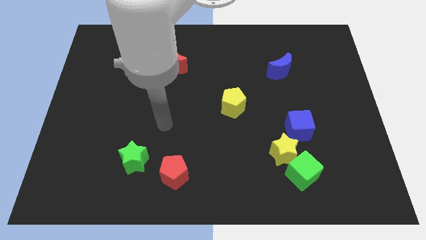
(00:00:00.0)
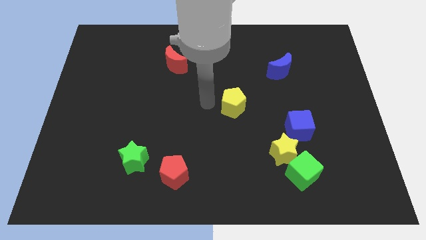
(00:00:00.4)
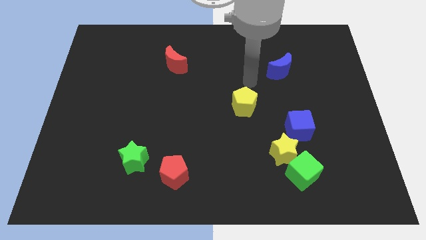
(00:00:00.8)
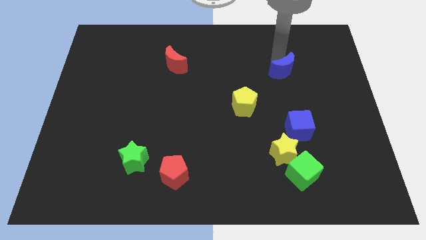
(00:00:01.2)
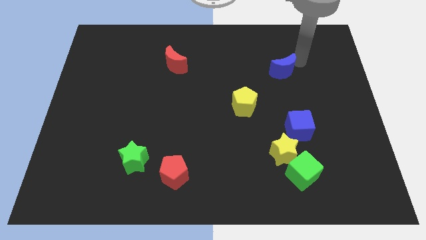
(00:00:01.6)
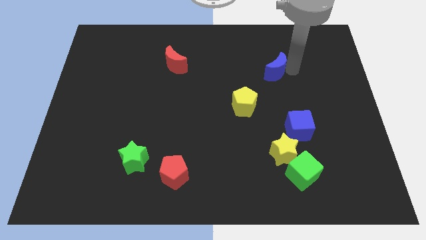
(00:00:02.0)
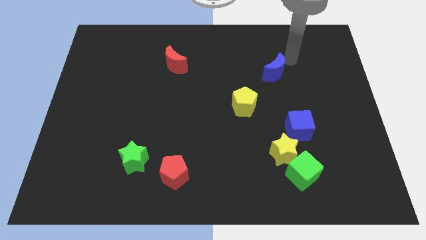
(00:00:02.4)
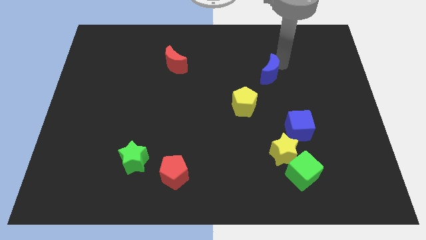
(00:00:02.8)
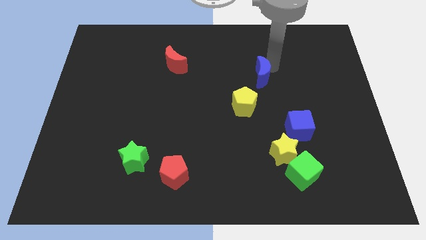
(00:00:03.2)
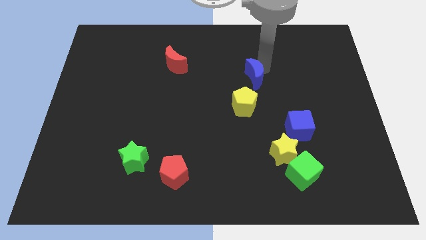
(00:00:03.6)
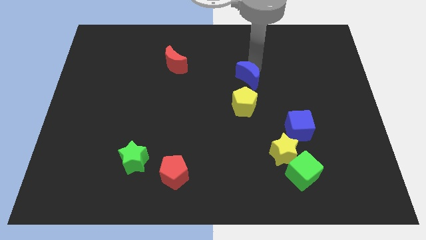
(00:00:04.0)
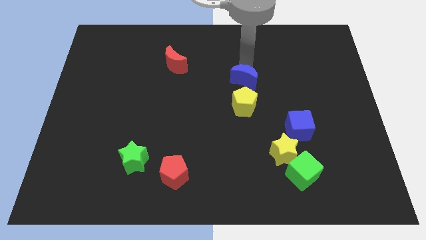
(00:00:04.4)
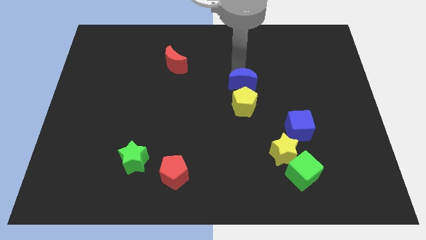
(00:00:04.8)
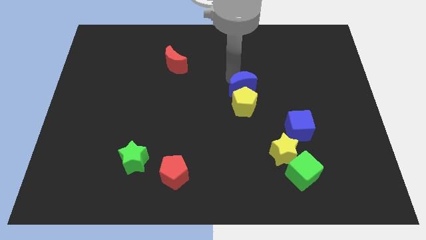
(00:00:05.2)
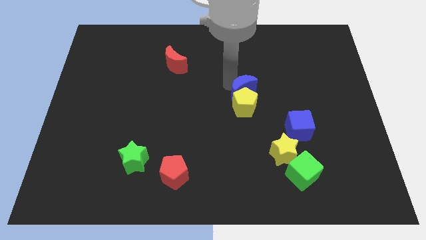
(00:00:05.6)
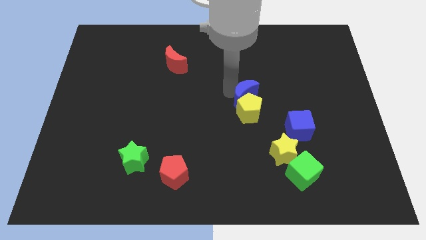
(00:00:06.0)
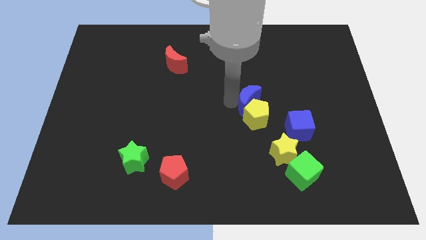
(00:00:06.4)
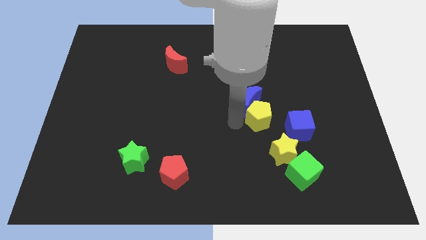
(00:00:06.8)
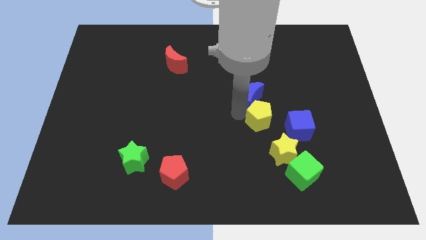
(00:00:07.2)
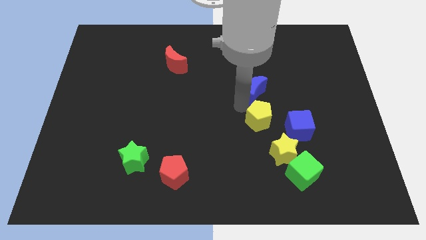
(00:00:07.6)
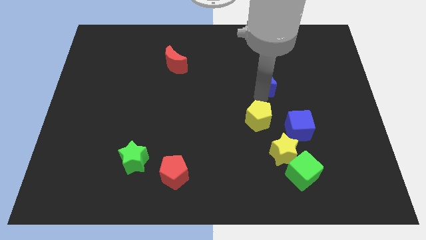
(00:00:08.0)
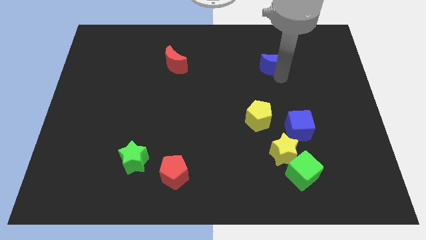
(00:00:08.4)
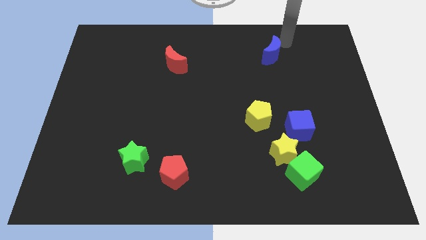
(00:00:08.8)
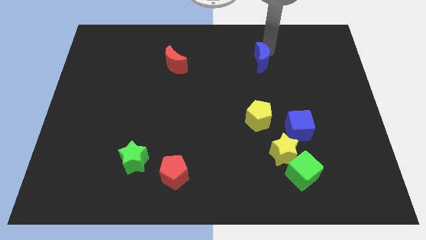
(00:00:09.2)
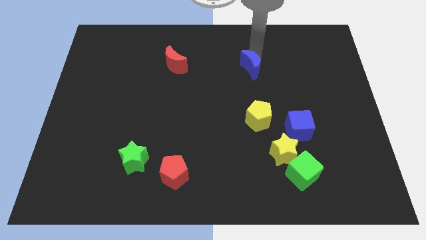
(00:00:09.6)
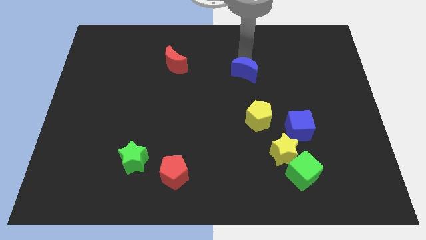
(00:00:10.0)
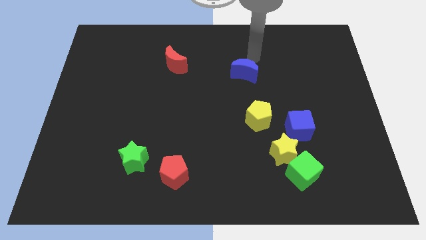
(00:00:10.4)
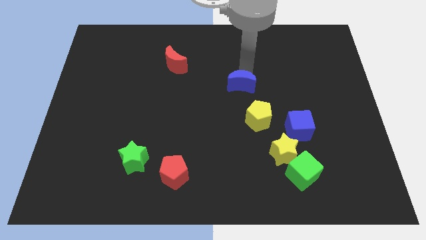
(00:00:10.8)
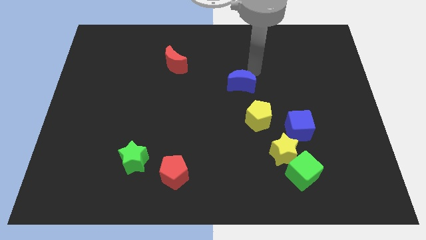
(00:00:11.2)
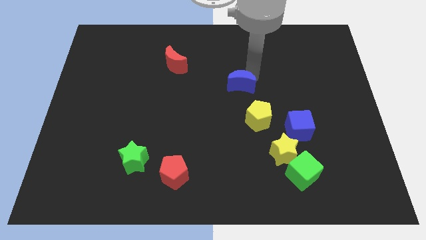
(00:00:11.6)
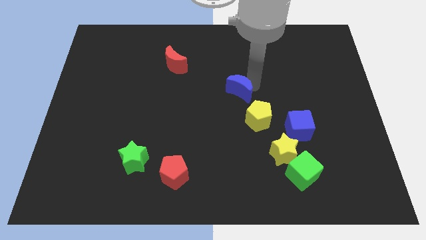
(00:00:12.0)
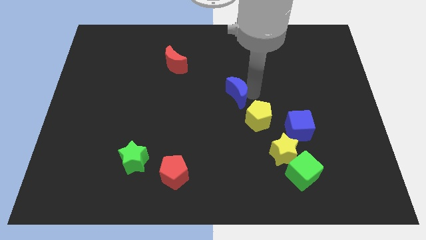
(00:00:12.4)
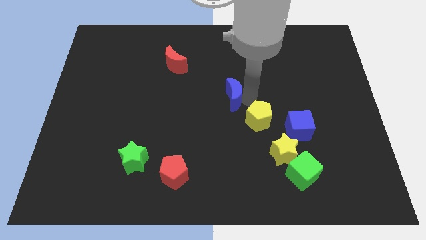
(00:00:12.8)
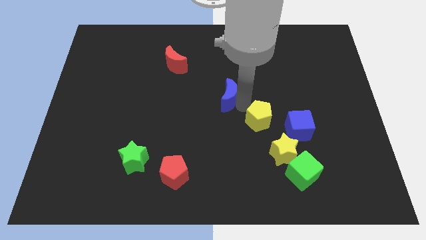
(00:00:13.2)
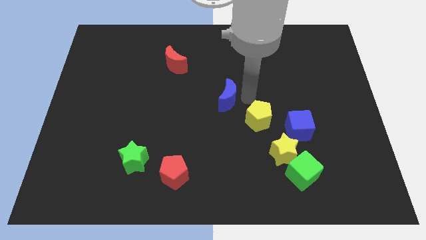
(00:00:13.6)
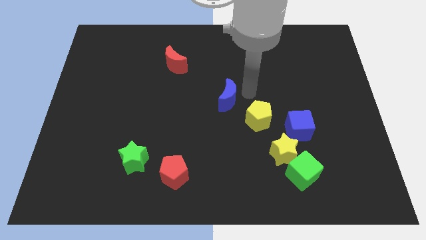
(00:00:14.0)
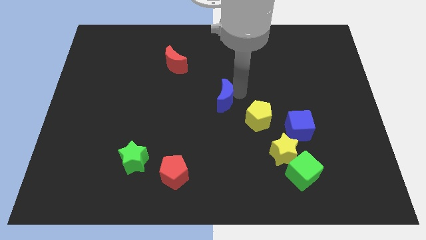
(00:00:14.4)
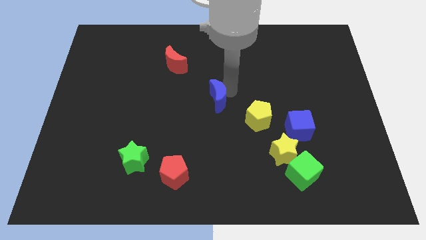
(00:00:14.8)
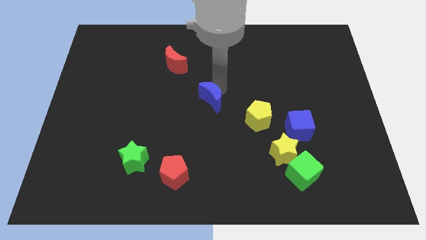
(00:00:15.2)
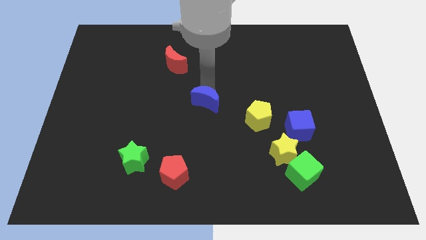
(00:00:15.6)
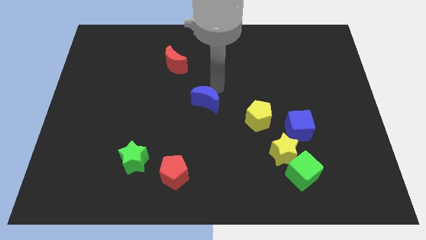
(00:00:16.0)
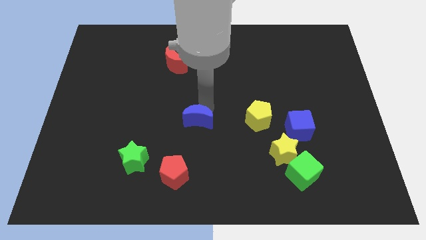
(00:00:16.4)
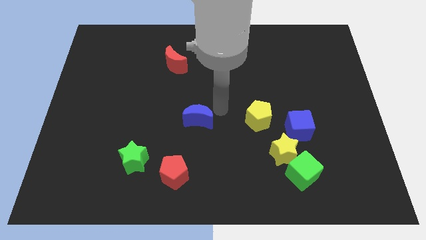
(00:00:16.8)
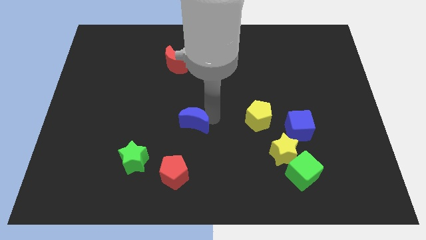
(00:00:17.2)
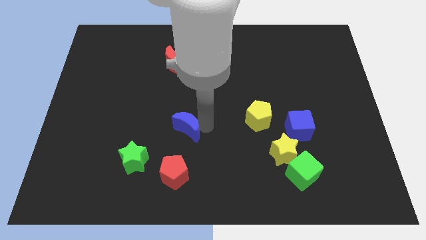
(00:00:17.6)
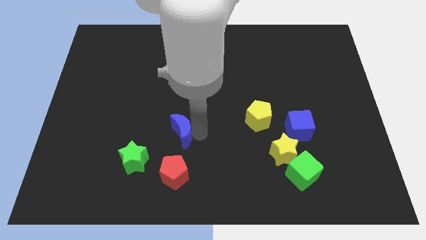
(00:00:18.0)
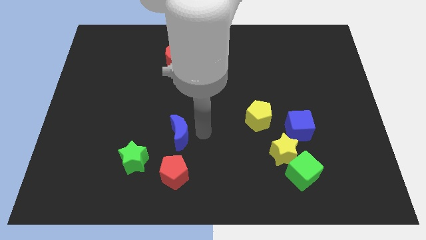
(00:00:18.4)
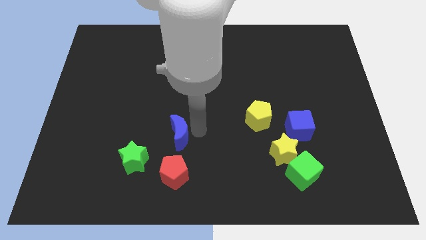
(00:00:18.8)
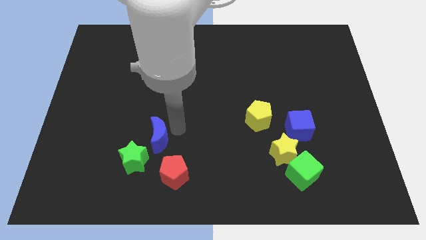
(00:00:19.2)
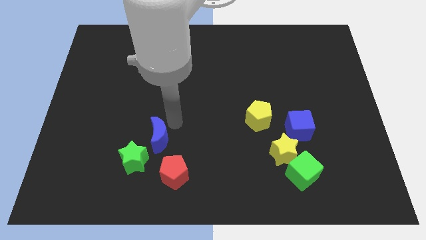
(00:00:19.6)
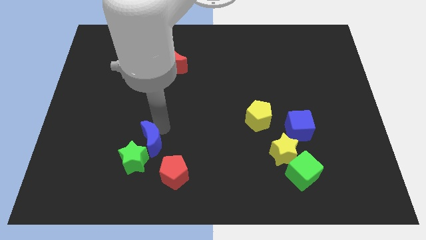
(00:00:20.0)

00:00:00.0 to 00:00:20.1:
push the blue moon next to the green star

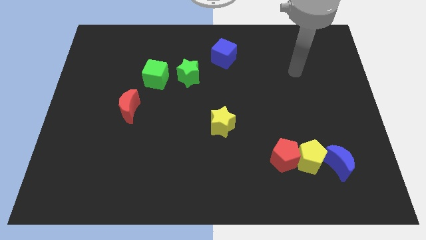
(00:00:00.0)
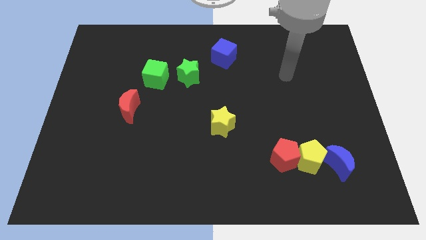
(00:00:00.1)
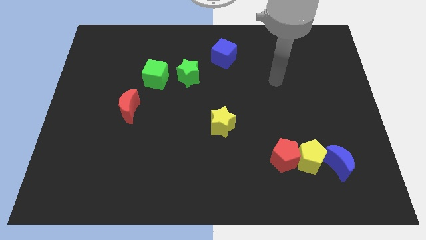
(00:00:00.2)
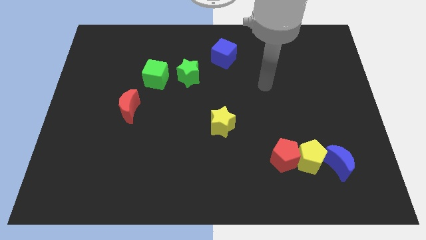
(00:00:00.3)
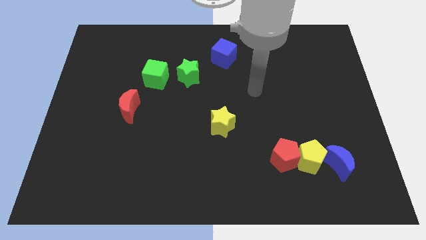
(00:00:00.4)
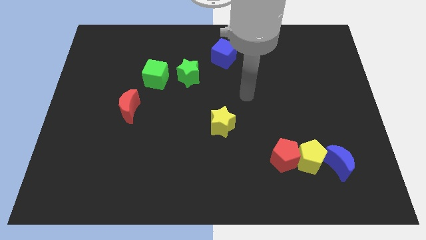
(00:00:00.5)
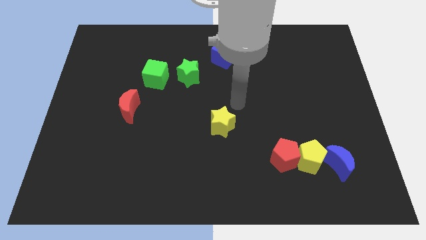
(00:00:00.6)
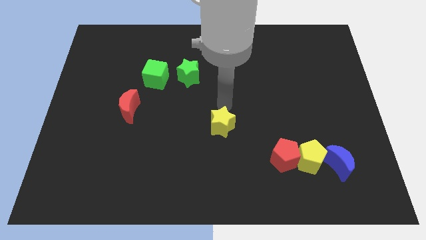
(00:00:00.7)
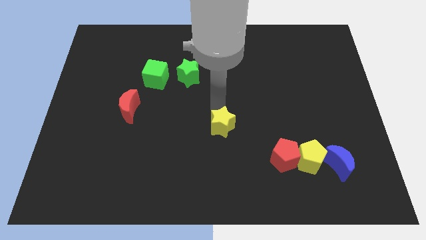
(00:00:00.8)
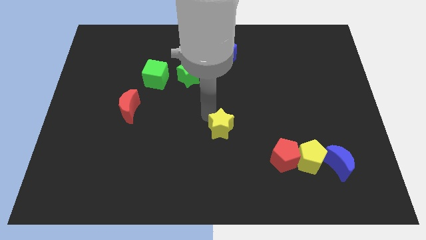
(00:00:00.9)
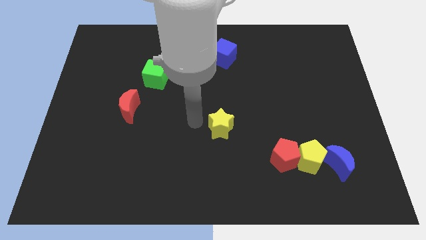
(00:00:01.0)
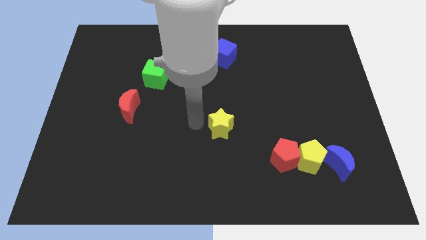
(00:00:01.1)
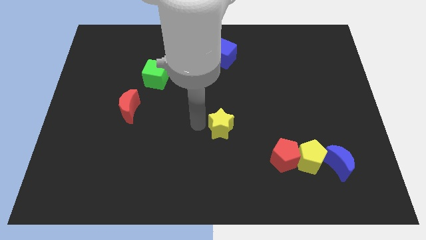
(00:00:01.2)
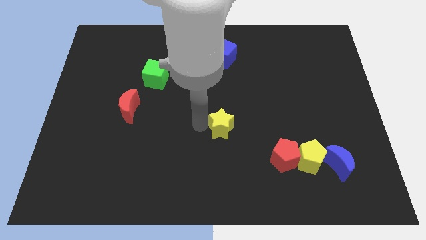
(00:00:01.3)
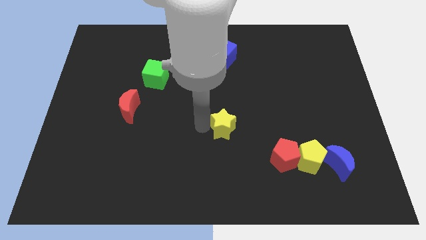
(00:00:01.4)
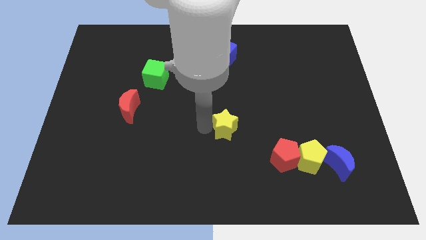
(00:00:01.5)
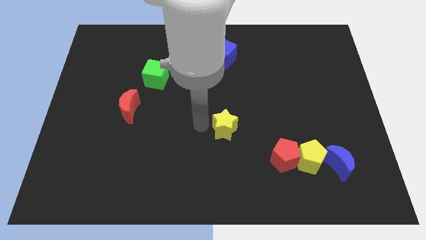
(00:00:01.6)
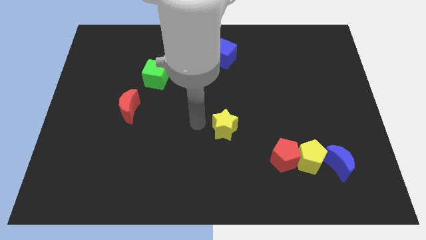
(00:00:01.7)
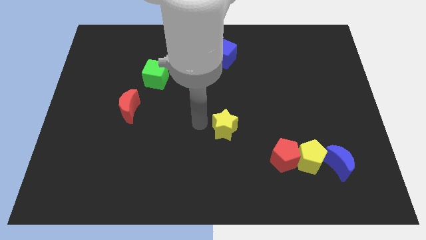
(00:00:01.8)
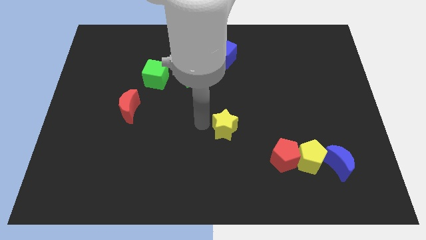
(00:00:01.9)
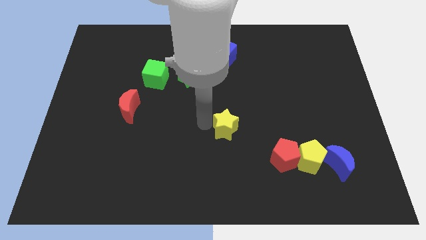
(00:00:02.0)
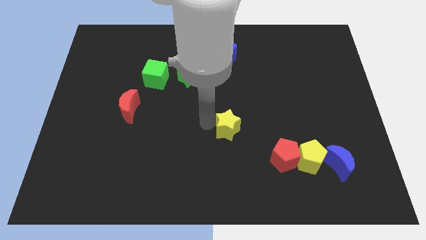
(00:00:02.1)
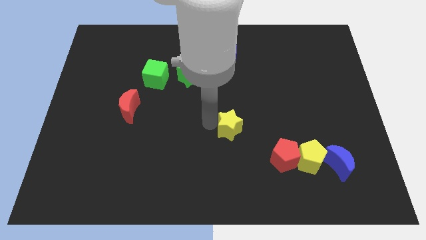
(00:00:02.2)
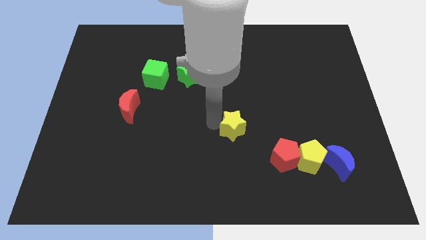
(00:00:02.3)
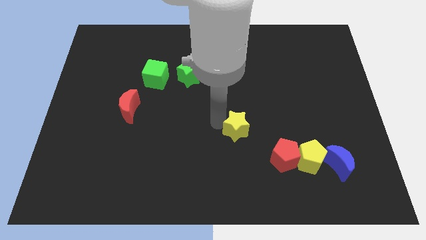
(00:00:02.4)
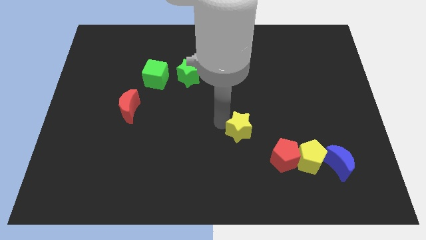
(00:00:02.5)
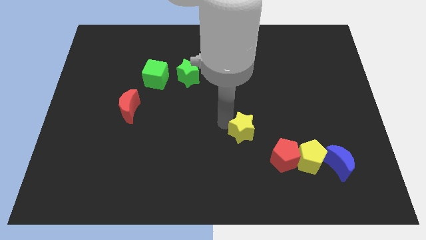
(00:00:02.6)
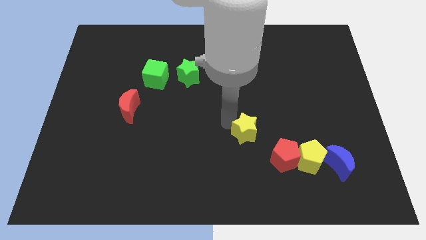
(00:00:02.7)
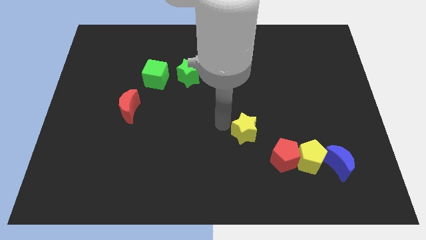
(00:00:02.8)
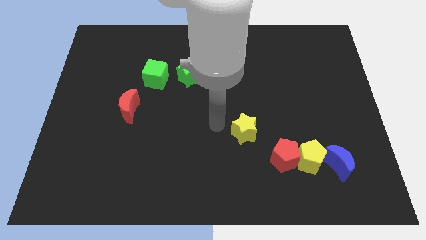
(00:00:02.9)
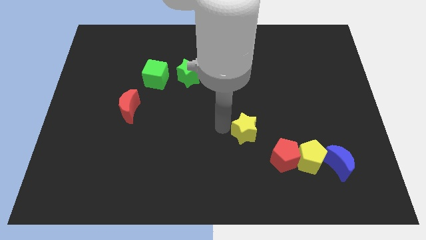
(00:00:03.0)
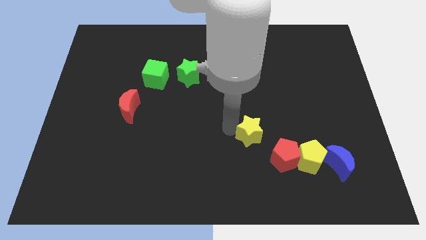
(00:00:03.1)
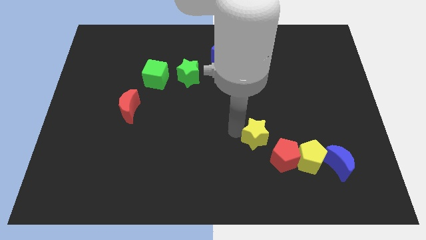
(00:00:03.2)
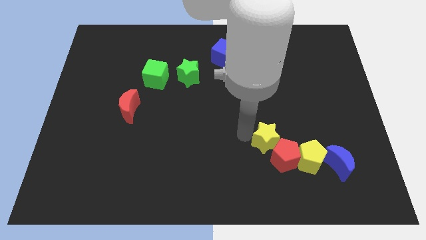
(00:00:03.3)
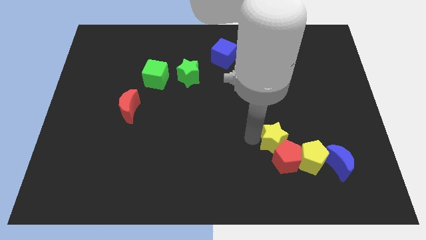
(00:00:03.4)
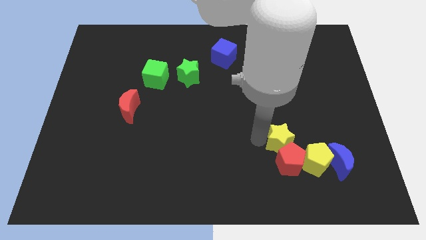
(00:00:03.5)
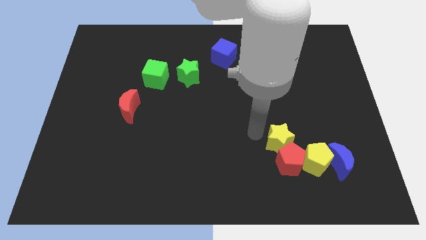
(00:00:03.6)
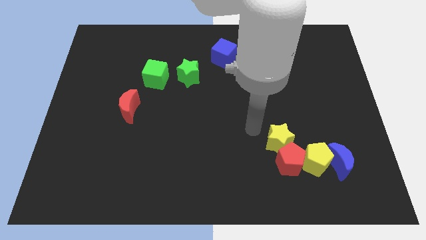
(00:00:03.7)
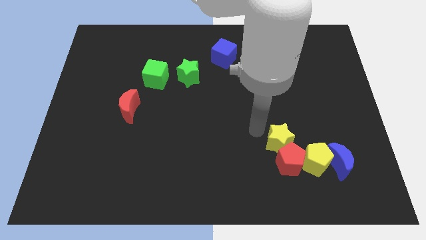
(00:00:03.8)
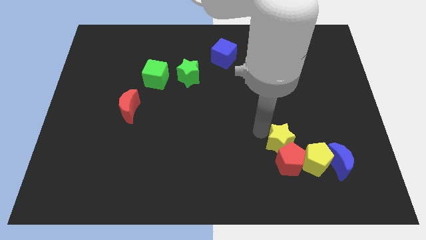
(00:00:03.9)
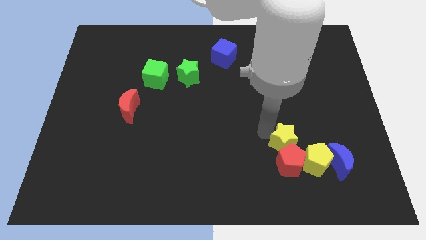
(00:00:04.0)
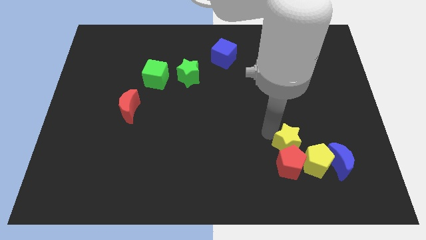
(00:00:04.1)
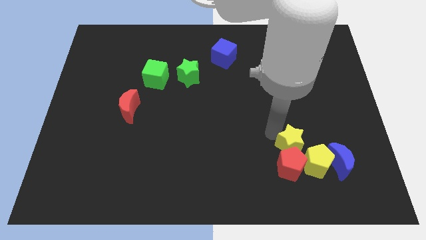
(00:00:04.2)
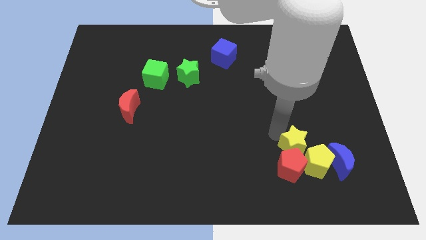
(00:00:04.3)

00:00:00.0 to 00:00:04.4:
put the yellow star towards the yellow pentagon
